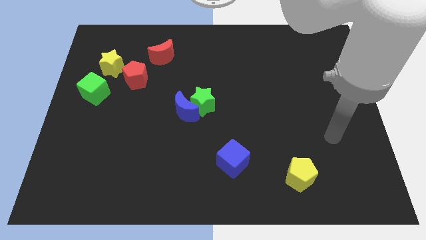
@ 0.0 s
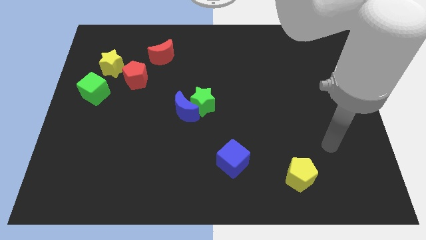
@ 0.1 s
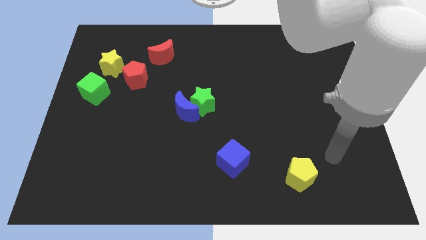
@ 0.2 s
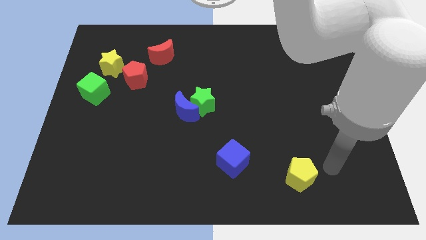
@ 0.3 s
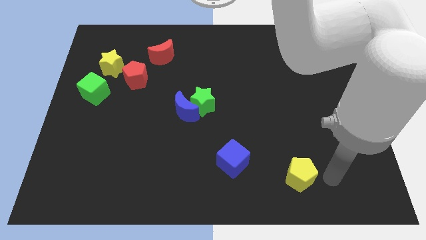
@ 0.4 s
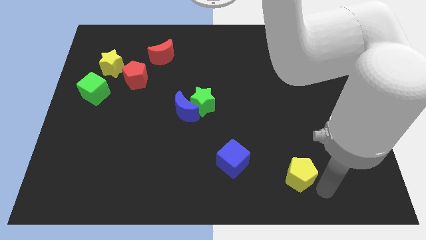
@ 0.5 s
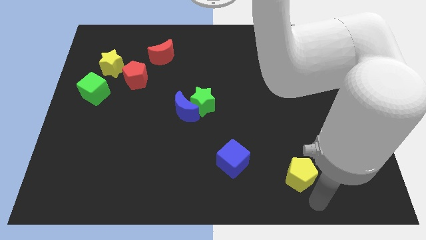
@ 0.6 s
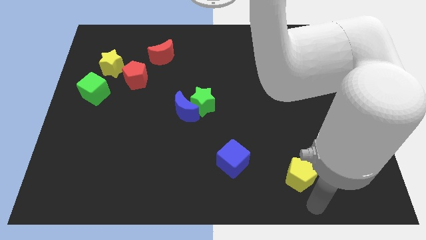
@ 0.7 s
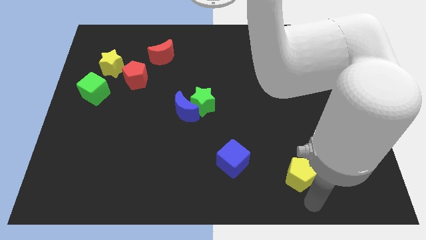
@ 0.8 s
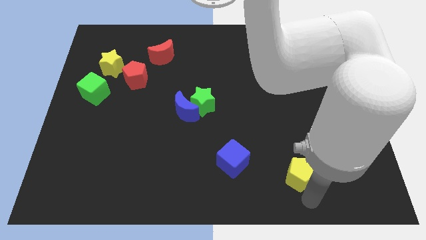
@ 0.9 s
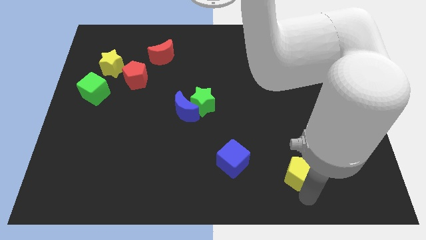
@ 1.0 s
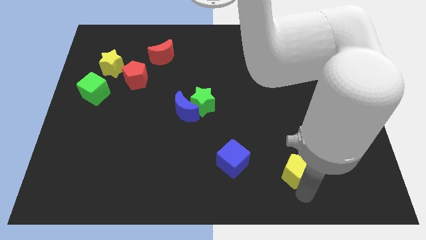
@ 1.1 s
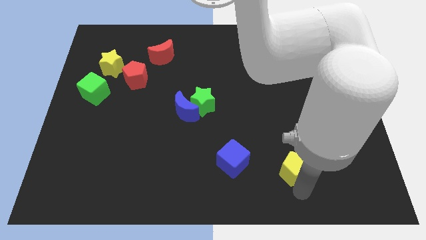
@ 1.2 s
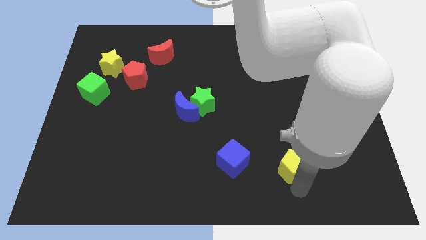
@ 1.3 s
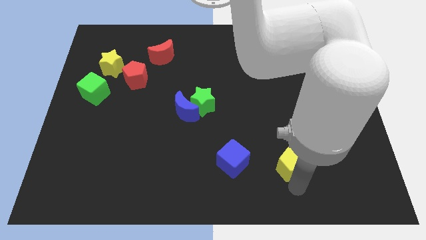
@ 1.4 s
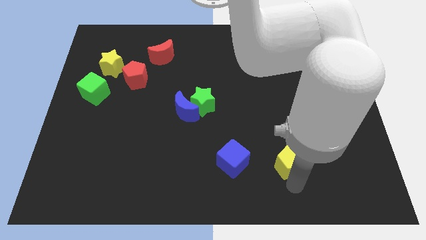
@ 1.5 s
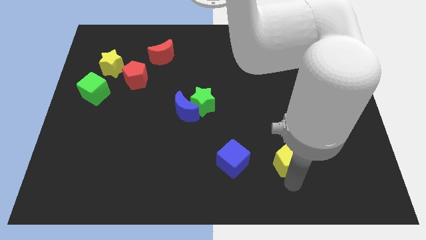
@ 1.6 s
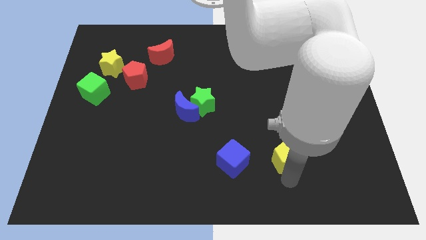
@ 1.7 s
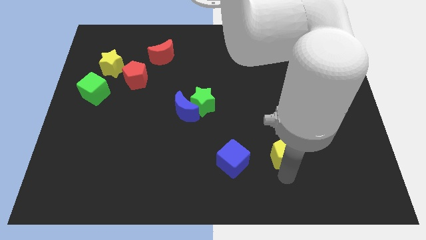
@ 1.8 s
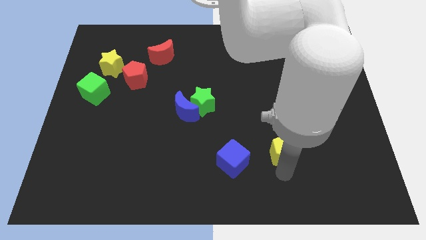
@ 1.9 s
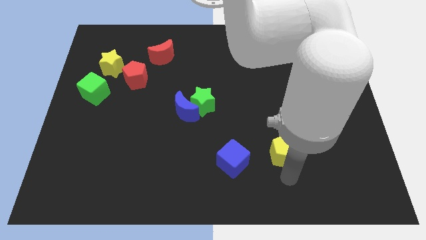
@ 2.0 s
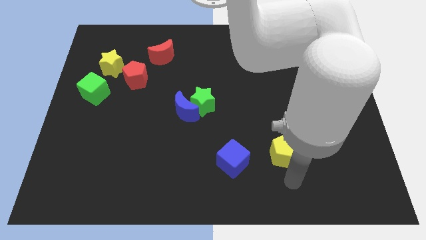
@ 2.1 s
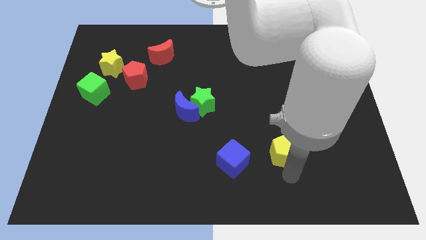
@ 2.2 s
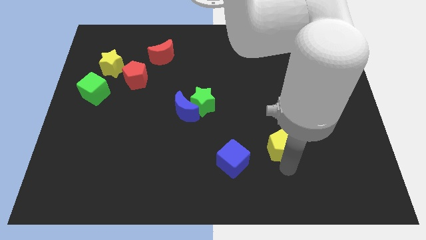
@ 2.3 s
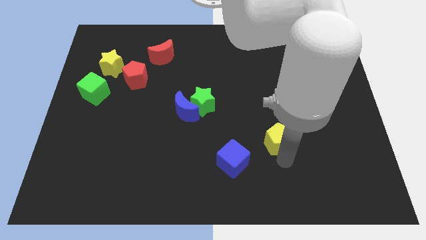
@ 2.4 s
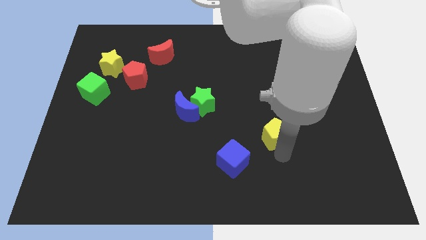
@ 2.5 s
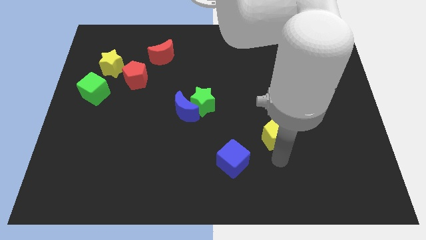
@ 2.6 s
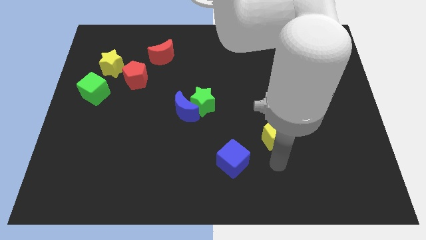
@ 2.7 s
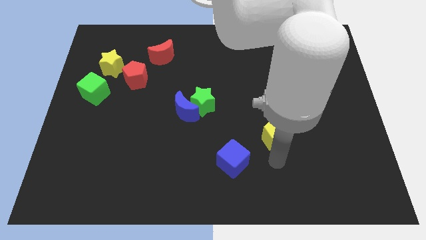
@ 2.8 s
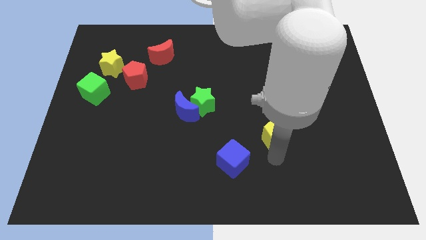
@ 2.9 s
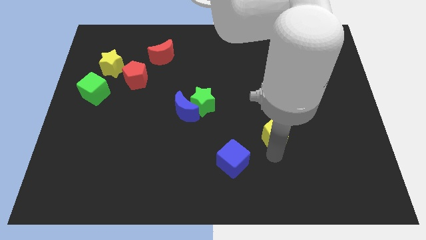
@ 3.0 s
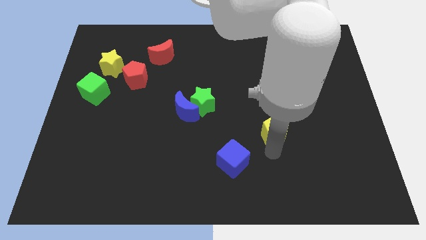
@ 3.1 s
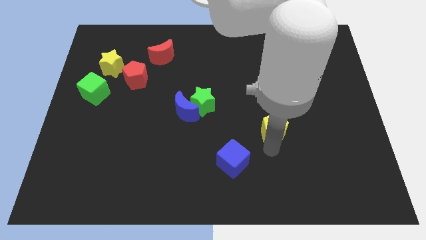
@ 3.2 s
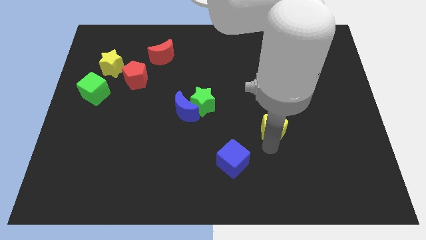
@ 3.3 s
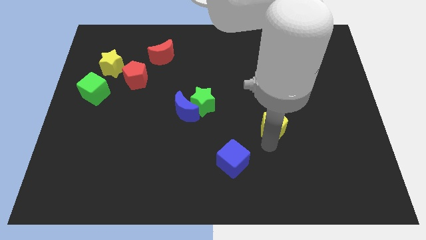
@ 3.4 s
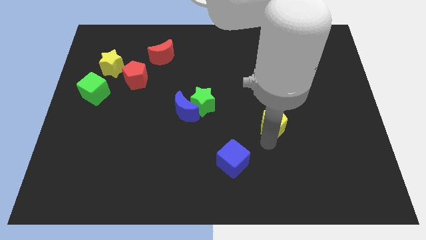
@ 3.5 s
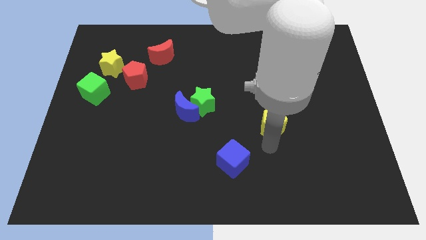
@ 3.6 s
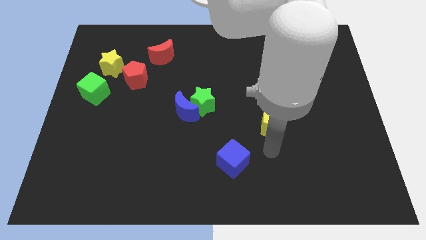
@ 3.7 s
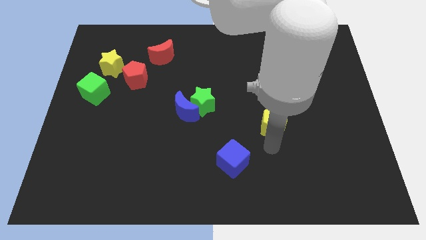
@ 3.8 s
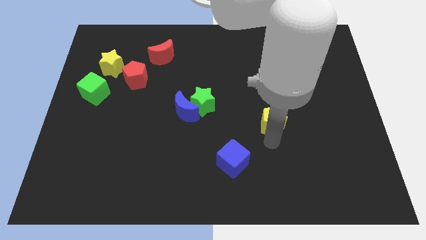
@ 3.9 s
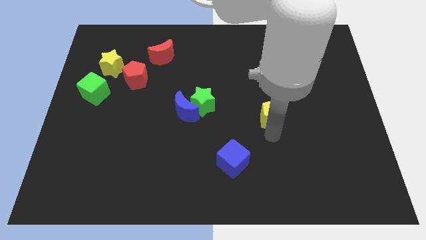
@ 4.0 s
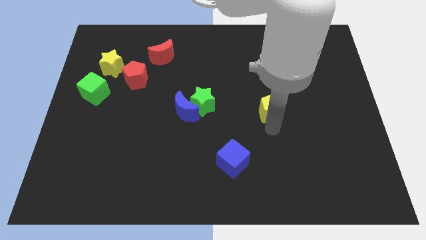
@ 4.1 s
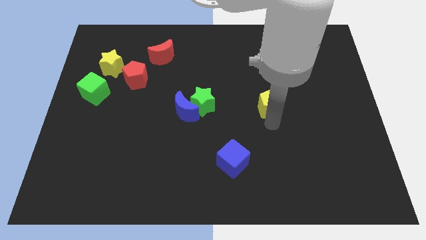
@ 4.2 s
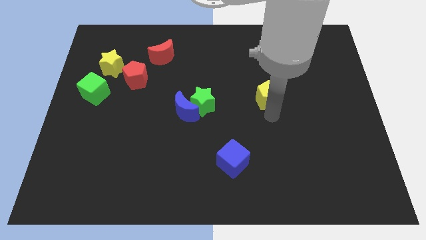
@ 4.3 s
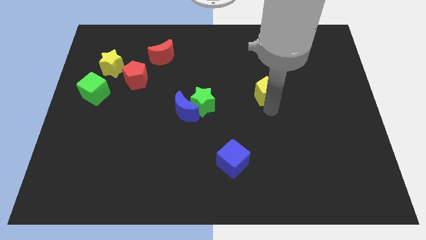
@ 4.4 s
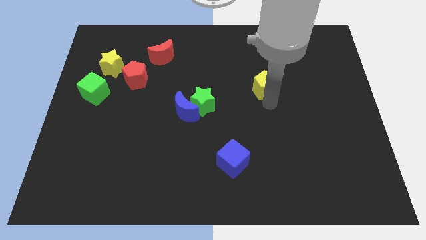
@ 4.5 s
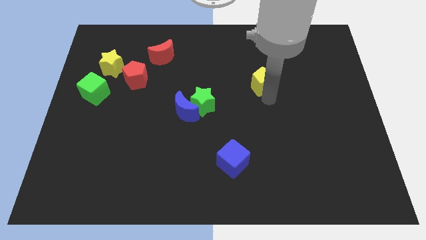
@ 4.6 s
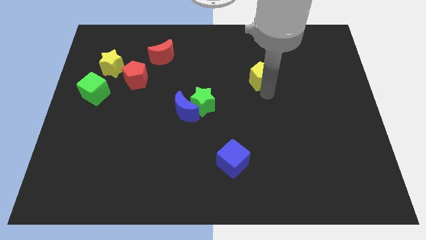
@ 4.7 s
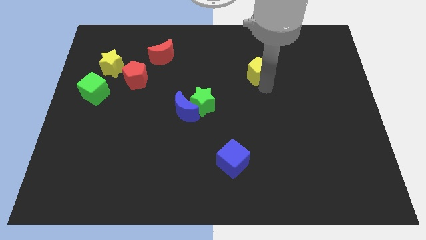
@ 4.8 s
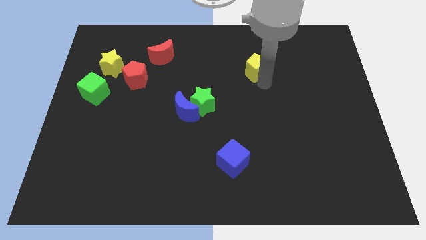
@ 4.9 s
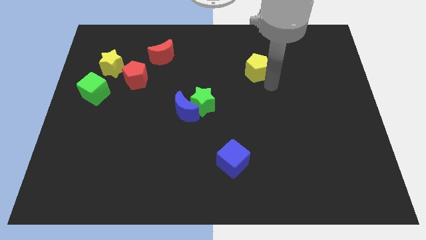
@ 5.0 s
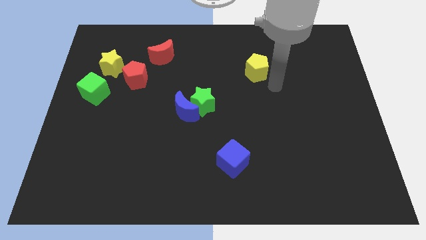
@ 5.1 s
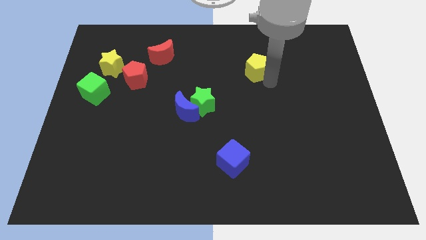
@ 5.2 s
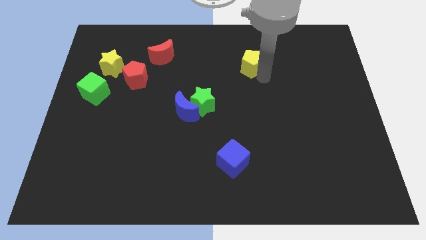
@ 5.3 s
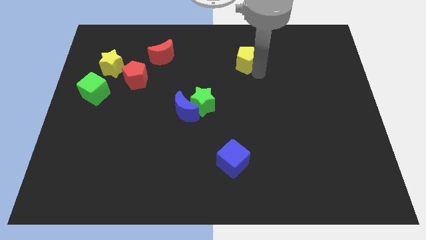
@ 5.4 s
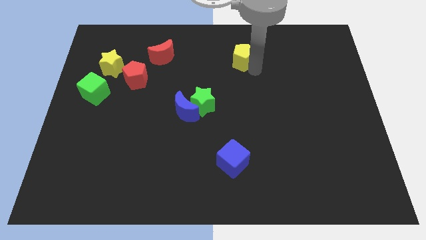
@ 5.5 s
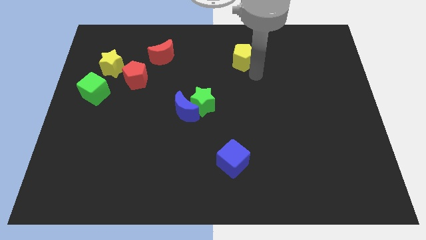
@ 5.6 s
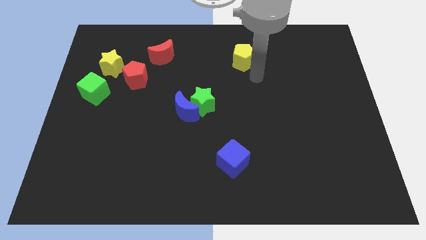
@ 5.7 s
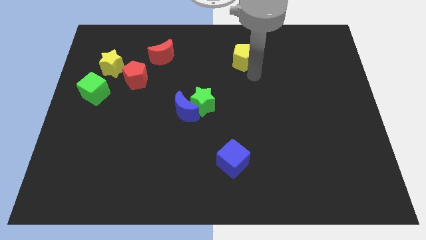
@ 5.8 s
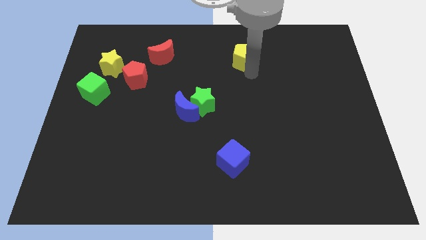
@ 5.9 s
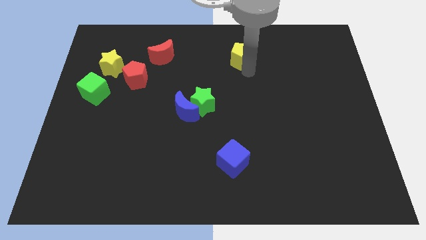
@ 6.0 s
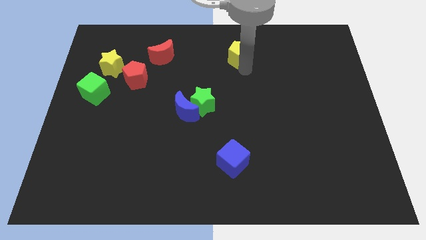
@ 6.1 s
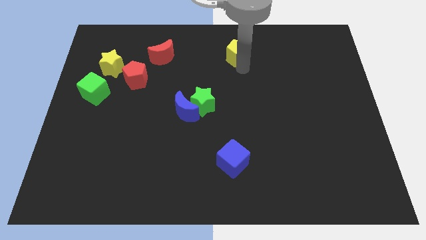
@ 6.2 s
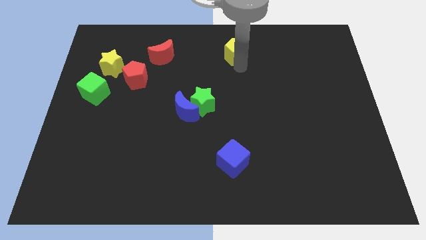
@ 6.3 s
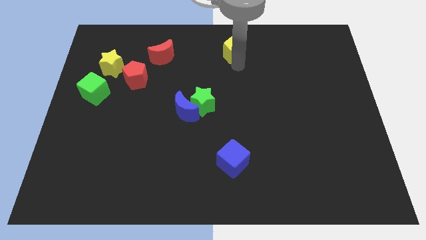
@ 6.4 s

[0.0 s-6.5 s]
move the yellow pentagon to the top
